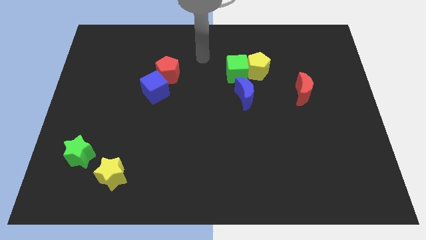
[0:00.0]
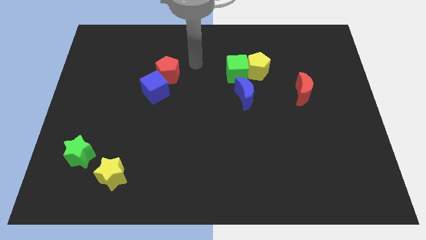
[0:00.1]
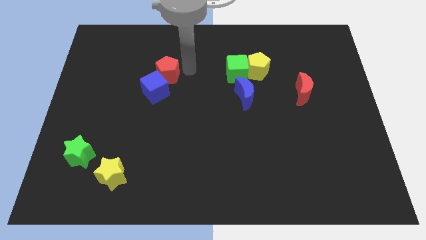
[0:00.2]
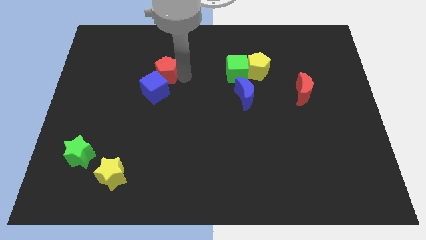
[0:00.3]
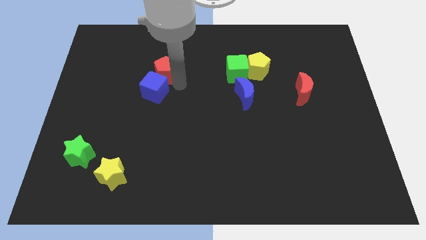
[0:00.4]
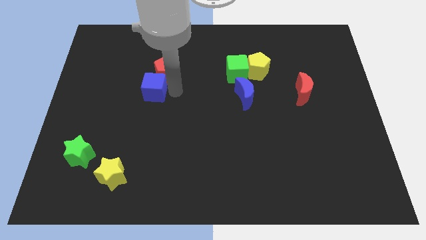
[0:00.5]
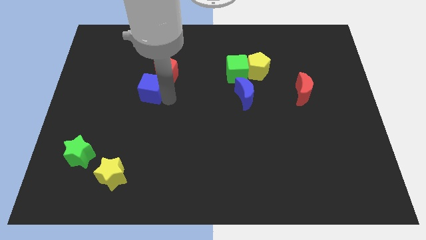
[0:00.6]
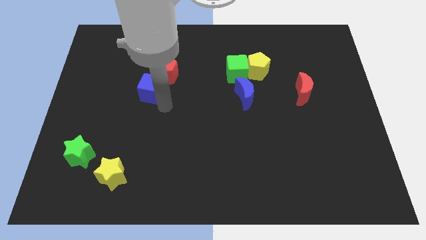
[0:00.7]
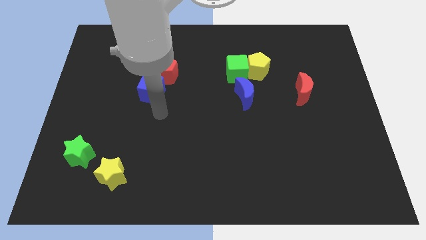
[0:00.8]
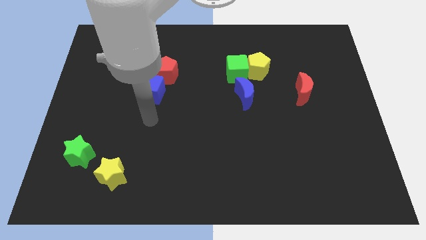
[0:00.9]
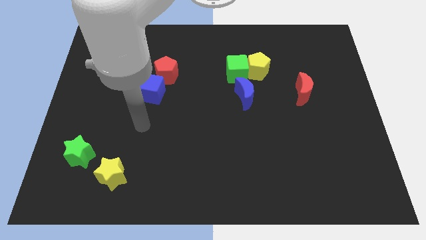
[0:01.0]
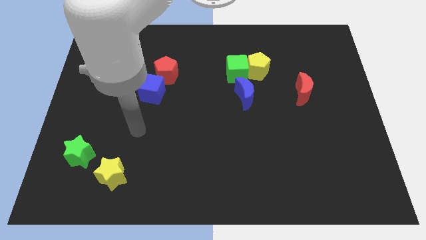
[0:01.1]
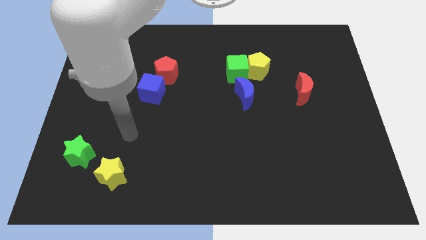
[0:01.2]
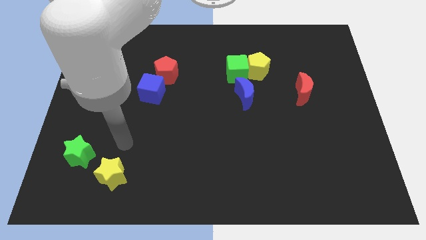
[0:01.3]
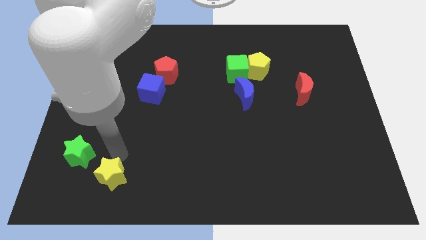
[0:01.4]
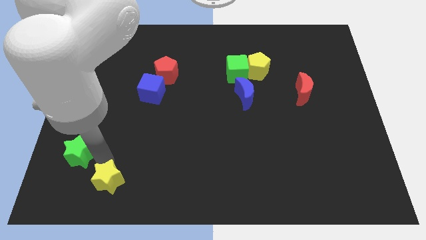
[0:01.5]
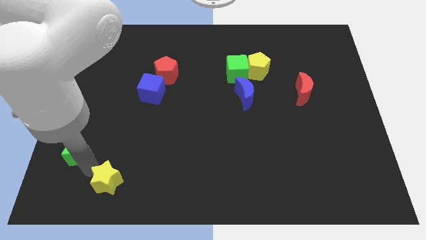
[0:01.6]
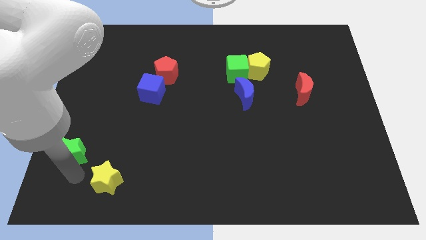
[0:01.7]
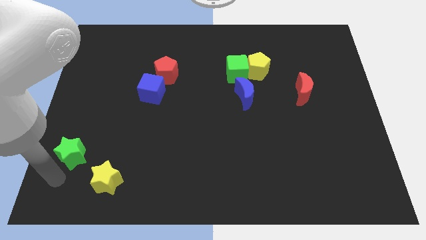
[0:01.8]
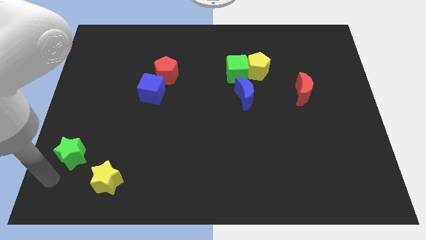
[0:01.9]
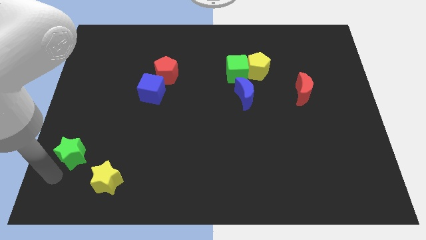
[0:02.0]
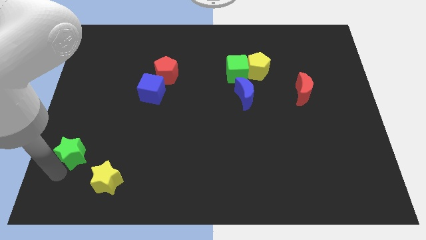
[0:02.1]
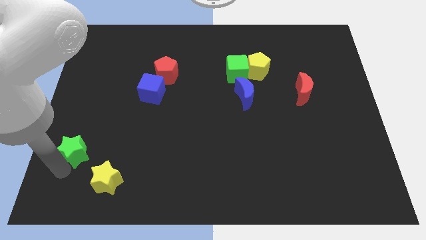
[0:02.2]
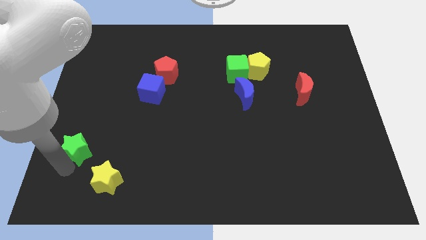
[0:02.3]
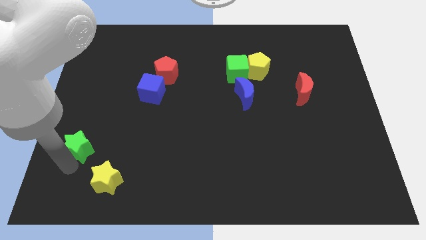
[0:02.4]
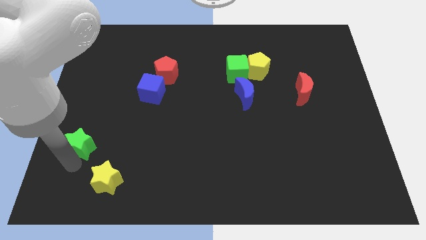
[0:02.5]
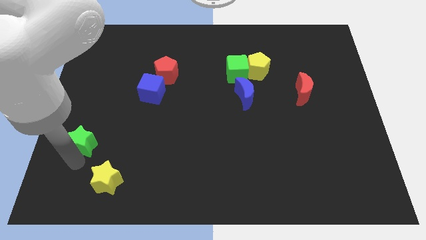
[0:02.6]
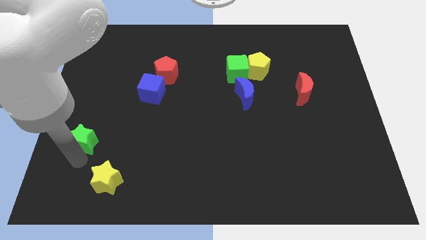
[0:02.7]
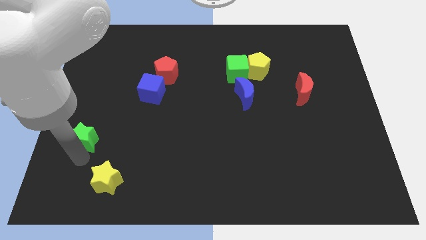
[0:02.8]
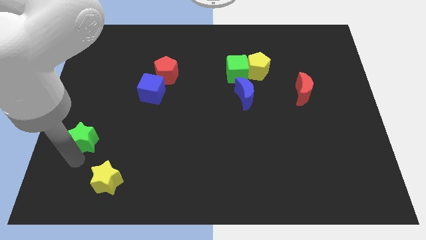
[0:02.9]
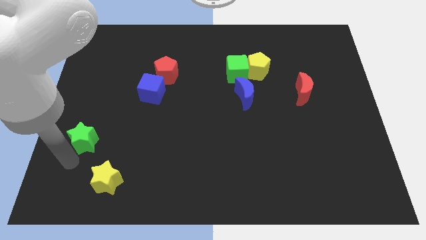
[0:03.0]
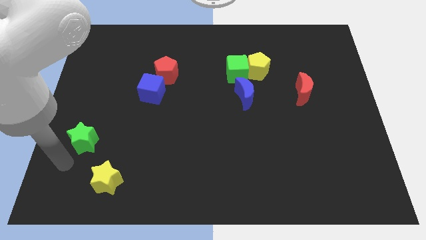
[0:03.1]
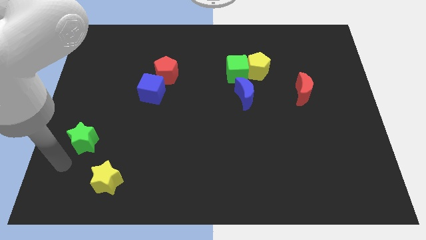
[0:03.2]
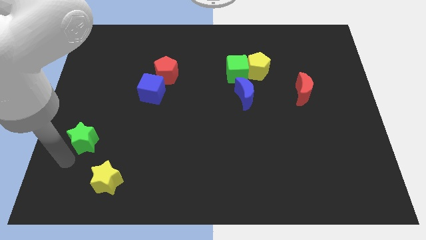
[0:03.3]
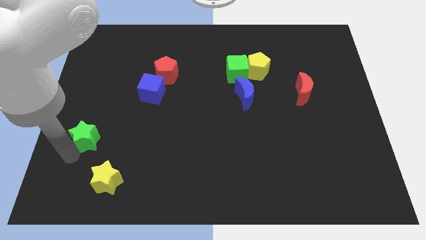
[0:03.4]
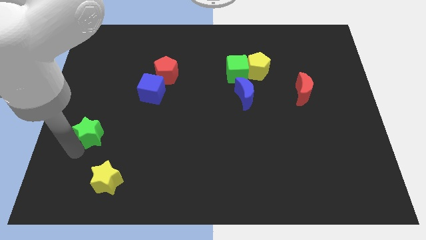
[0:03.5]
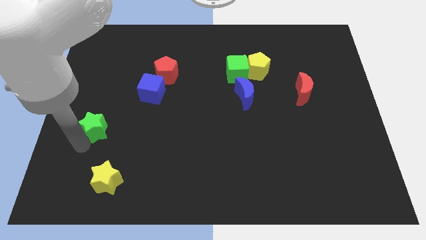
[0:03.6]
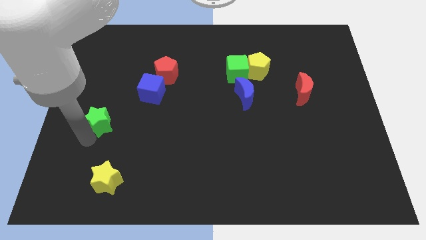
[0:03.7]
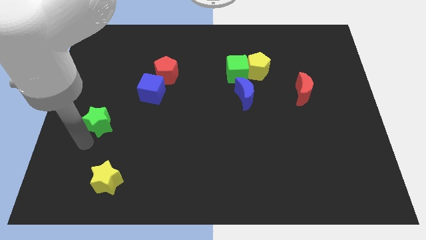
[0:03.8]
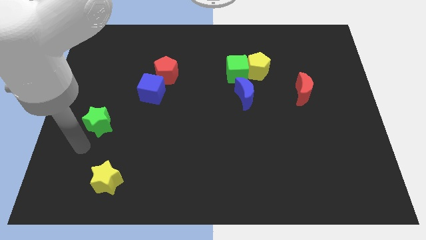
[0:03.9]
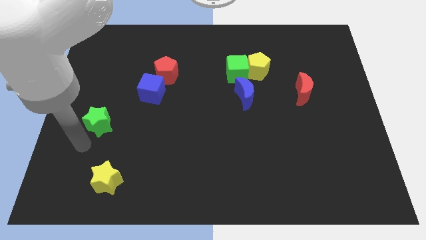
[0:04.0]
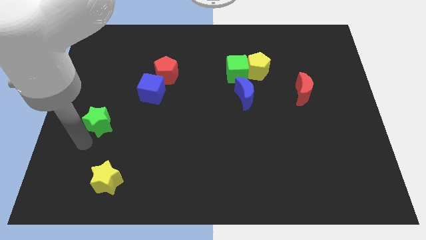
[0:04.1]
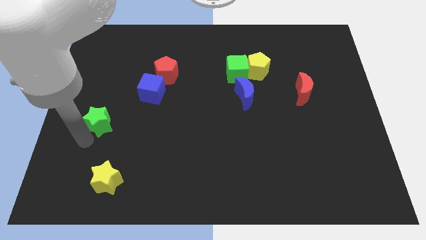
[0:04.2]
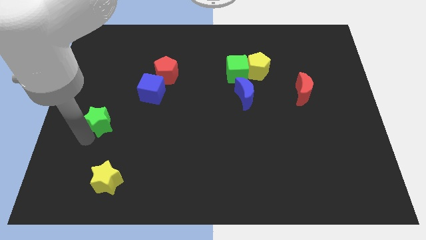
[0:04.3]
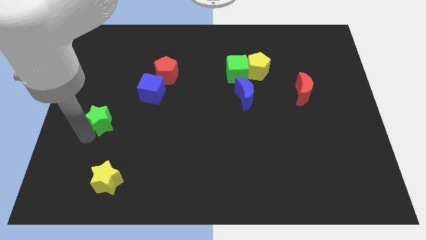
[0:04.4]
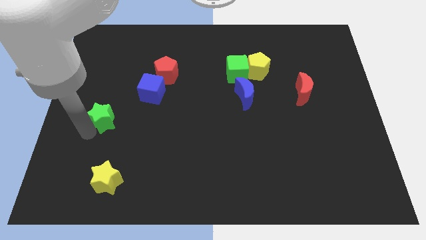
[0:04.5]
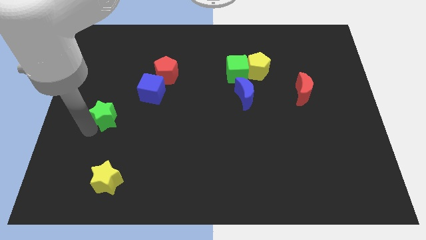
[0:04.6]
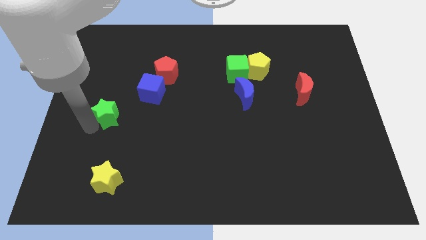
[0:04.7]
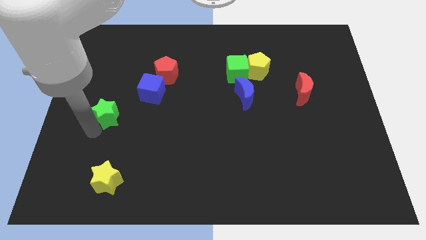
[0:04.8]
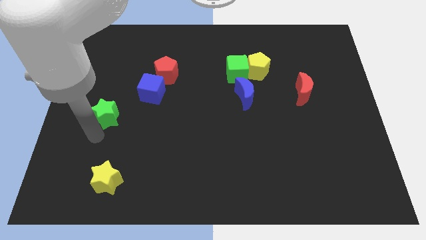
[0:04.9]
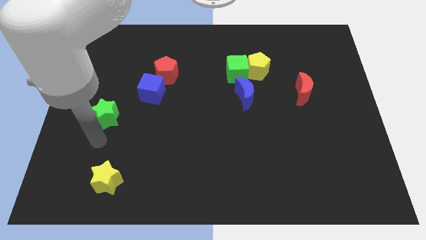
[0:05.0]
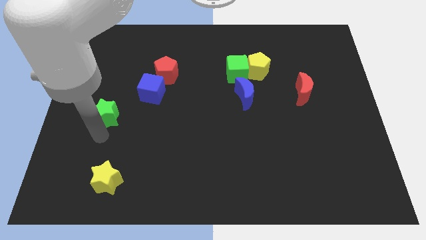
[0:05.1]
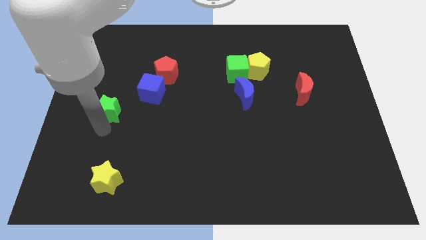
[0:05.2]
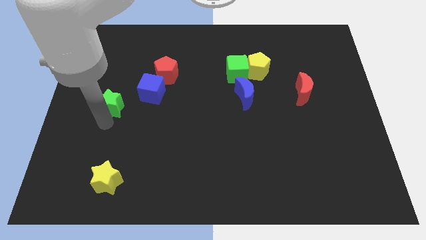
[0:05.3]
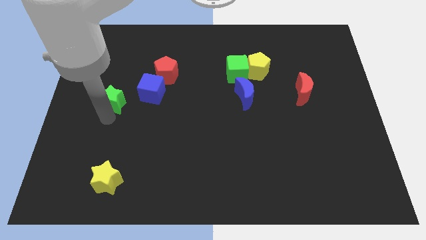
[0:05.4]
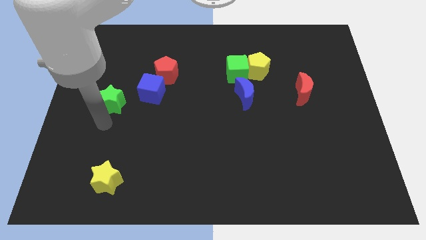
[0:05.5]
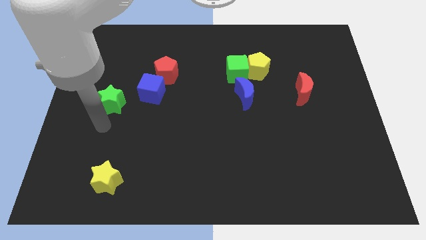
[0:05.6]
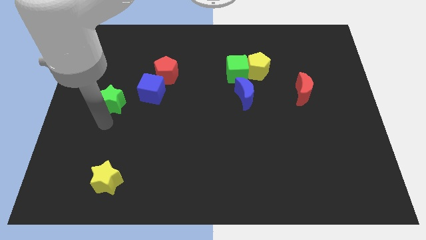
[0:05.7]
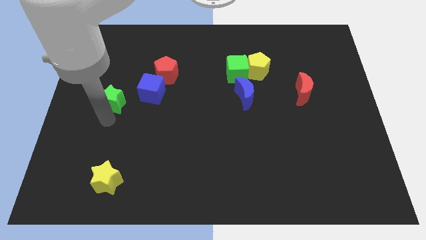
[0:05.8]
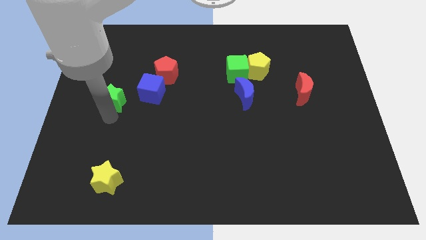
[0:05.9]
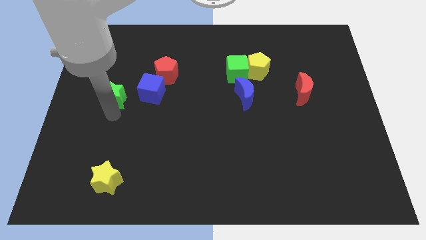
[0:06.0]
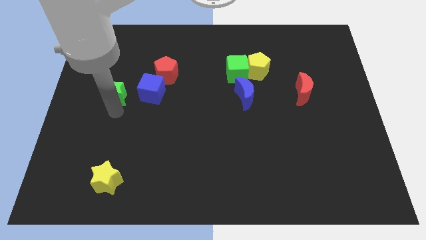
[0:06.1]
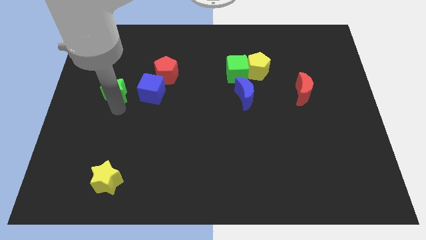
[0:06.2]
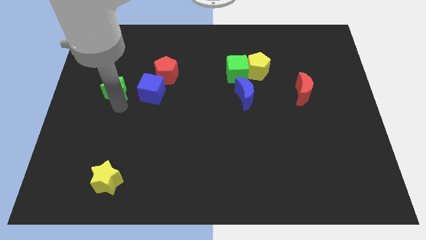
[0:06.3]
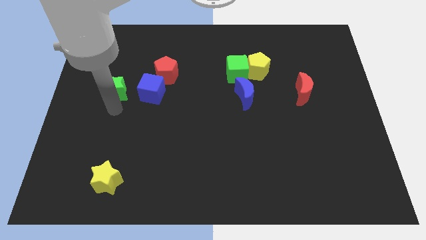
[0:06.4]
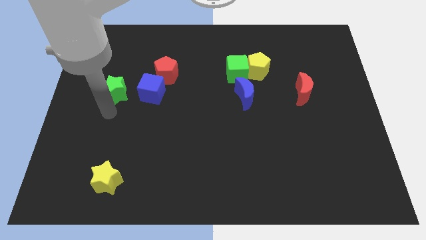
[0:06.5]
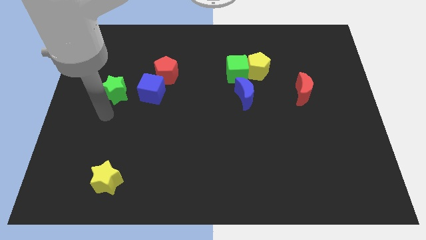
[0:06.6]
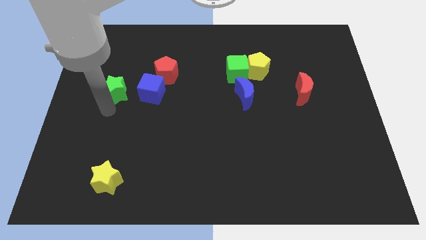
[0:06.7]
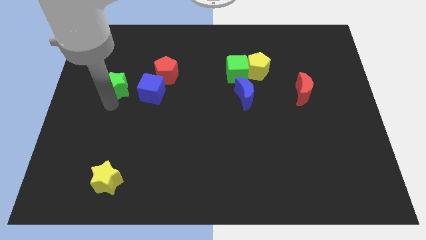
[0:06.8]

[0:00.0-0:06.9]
put the green star to the left side of the red pentagon
